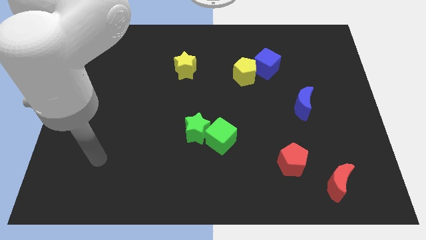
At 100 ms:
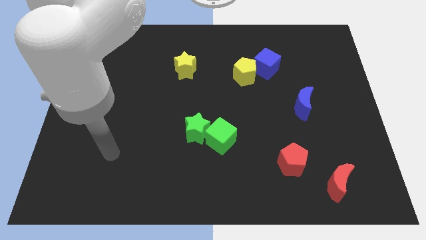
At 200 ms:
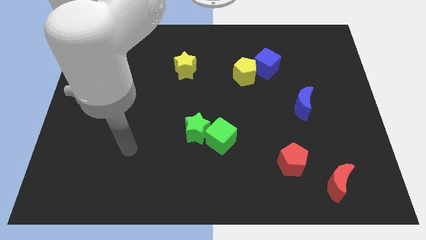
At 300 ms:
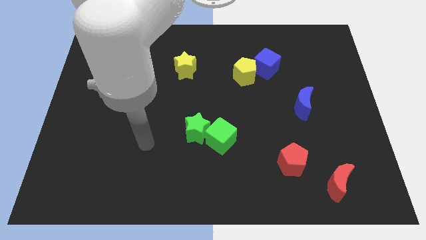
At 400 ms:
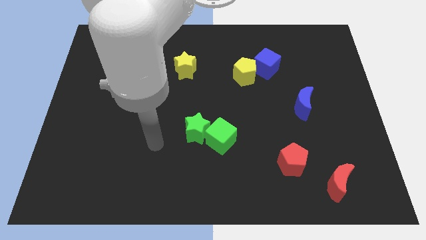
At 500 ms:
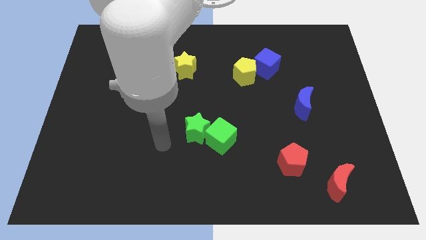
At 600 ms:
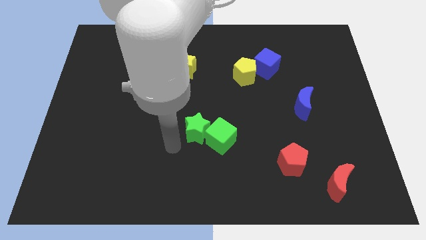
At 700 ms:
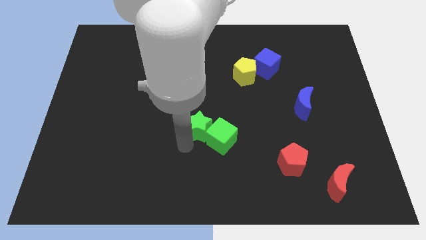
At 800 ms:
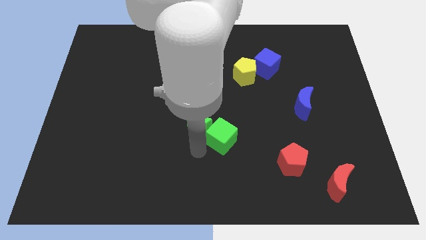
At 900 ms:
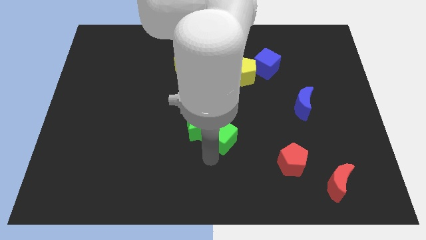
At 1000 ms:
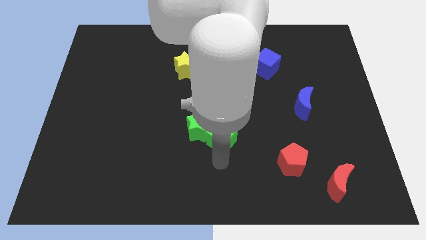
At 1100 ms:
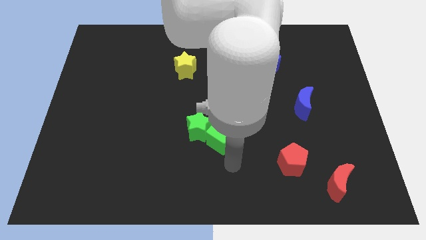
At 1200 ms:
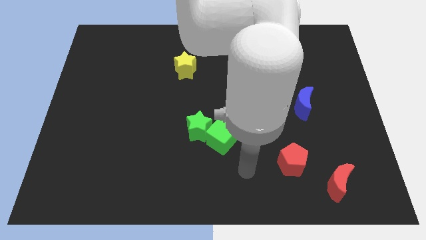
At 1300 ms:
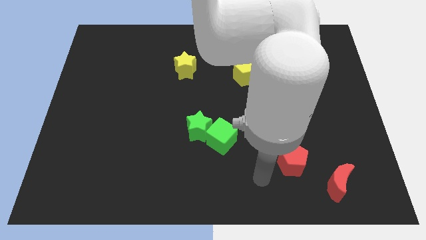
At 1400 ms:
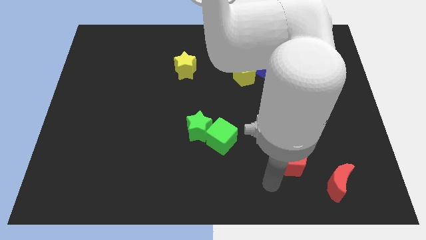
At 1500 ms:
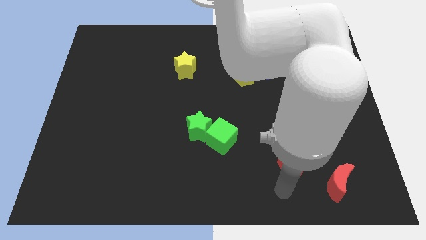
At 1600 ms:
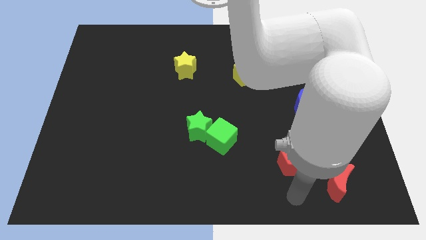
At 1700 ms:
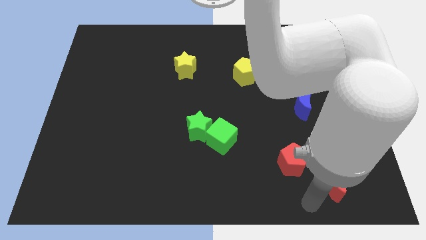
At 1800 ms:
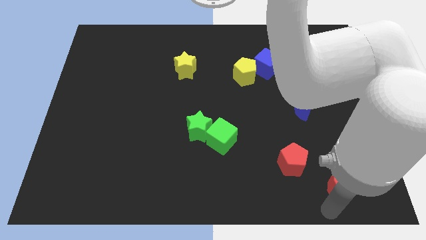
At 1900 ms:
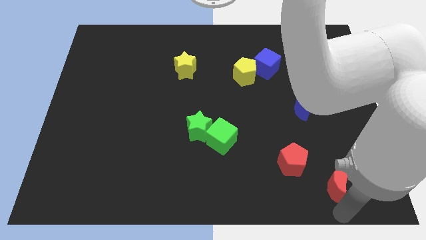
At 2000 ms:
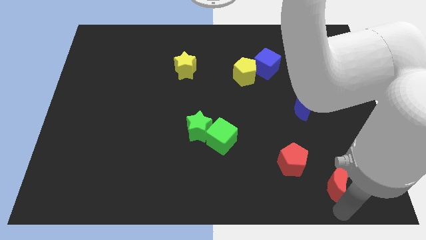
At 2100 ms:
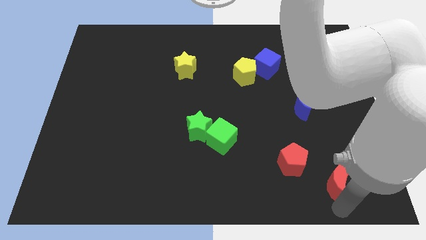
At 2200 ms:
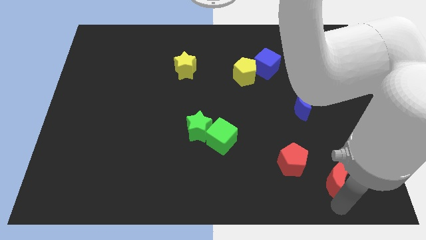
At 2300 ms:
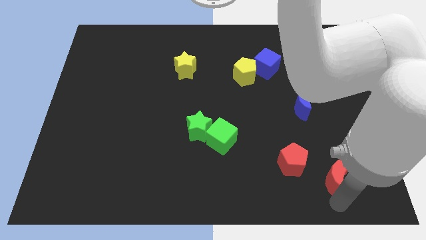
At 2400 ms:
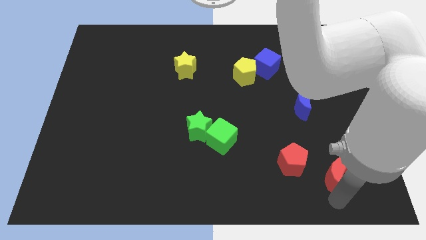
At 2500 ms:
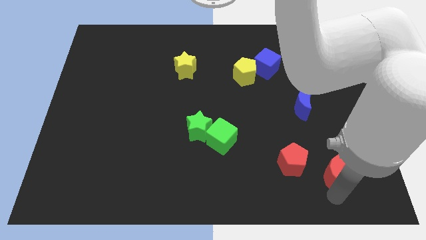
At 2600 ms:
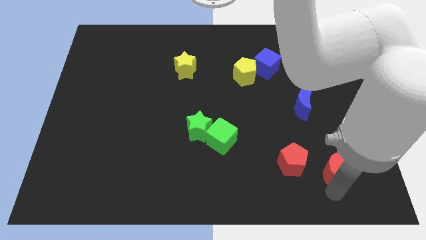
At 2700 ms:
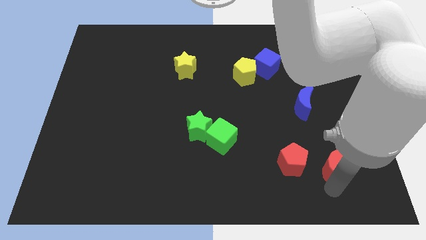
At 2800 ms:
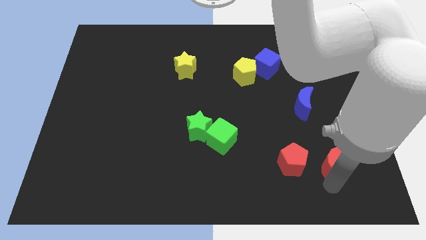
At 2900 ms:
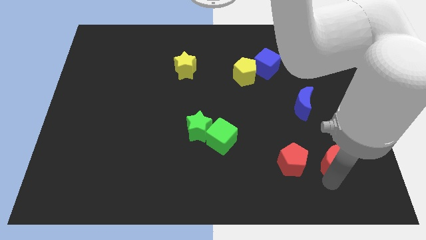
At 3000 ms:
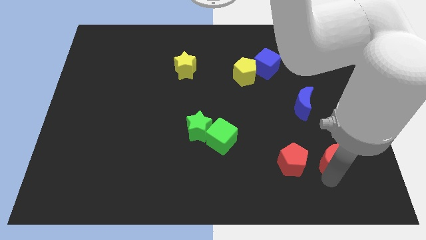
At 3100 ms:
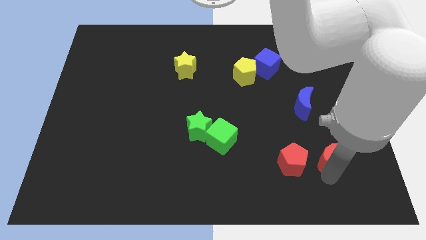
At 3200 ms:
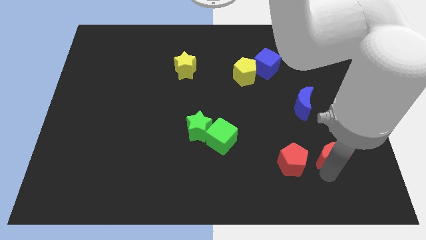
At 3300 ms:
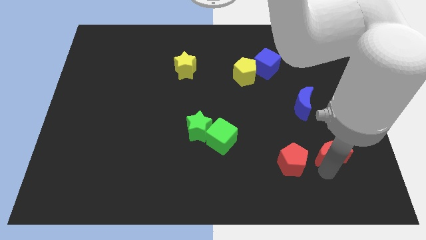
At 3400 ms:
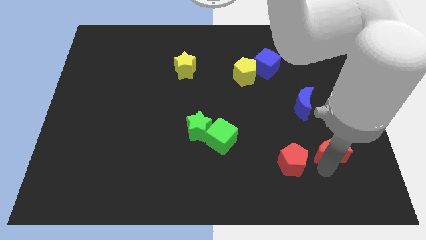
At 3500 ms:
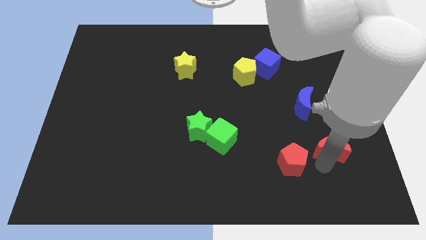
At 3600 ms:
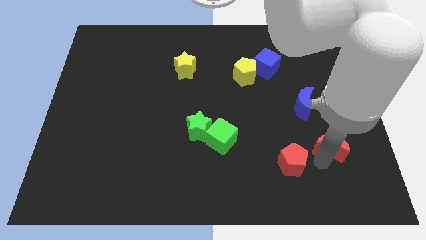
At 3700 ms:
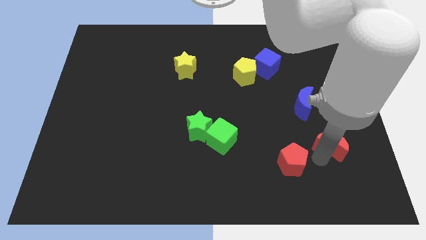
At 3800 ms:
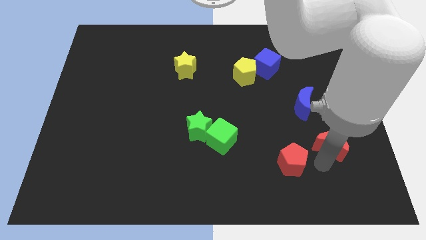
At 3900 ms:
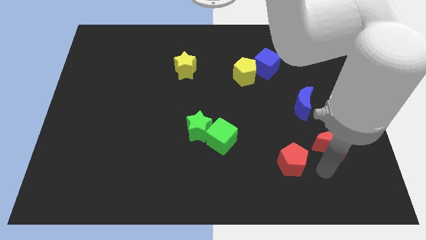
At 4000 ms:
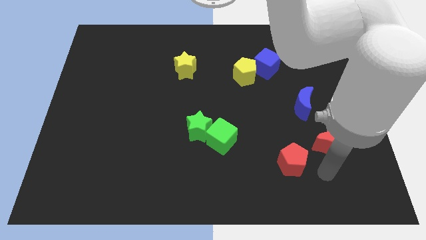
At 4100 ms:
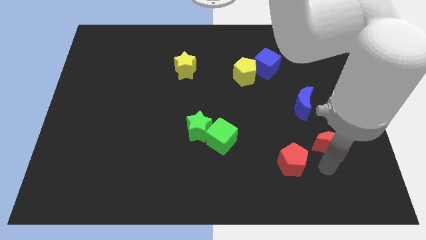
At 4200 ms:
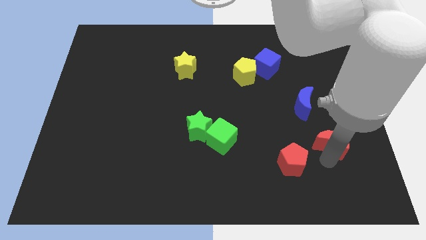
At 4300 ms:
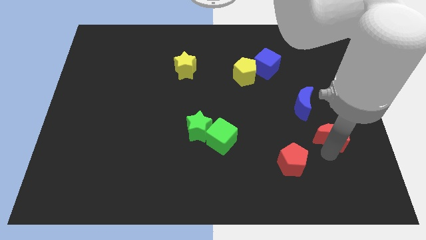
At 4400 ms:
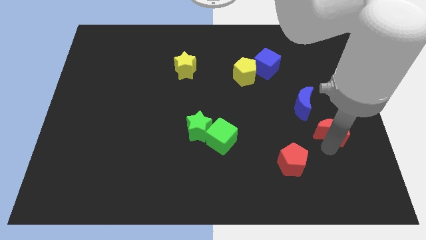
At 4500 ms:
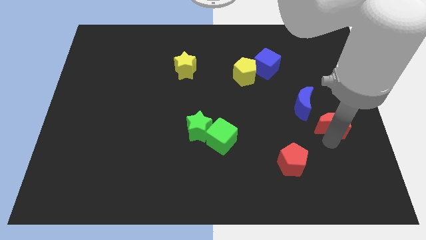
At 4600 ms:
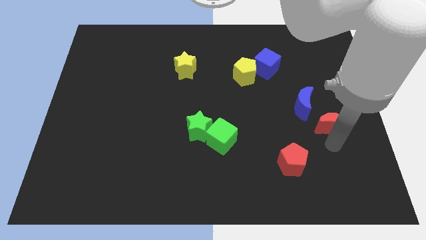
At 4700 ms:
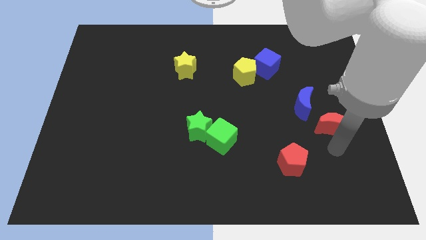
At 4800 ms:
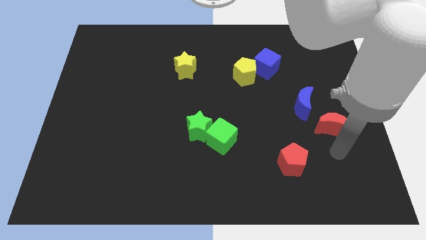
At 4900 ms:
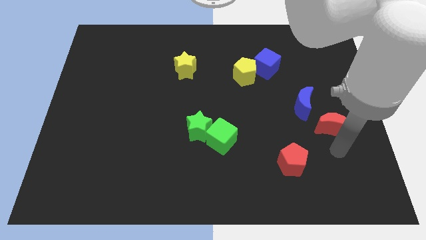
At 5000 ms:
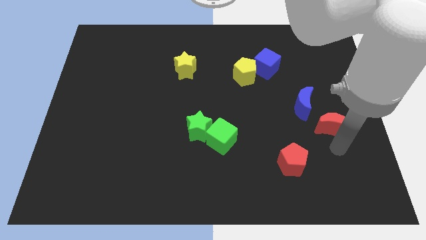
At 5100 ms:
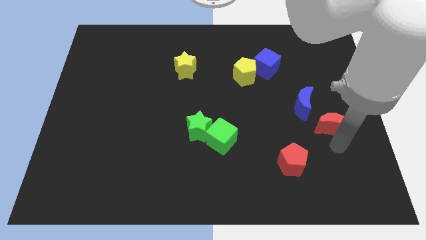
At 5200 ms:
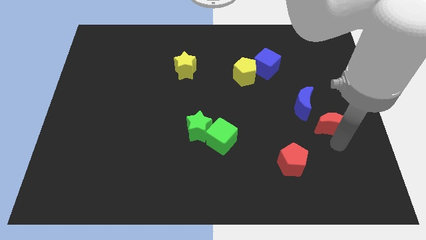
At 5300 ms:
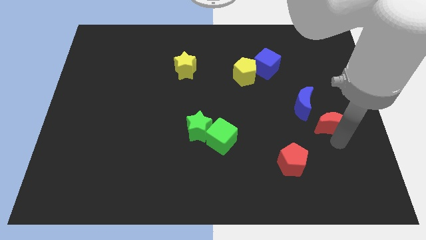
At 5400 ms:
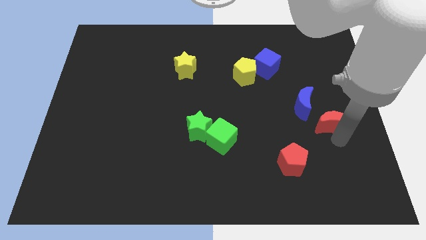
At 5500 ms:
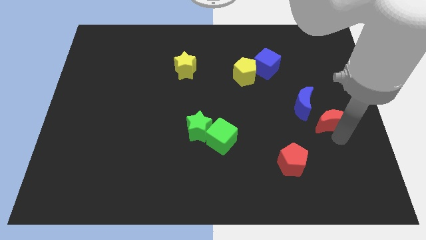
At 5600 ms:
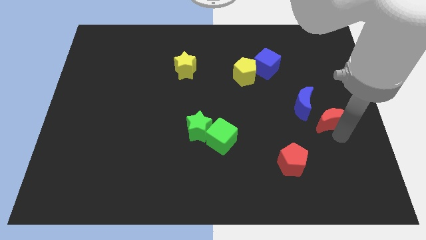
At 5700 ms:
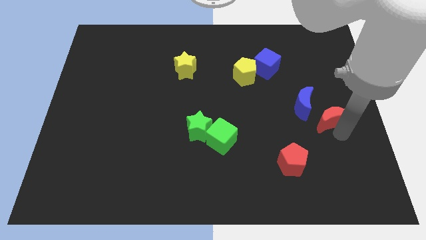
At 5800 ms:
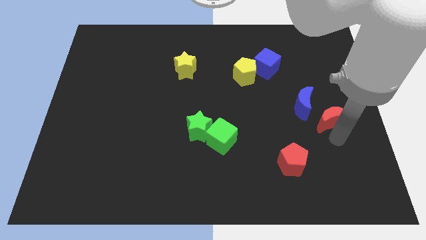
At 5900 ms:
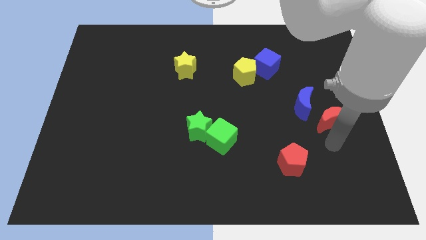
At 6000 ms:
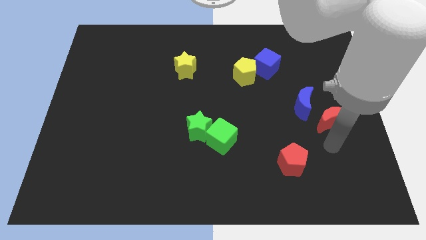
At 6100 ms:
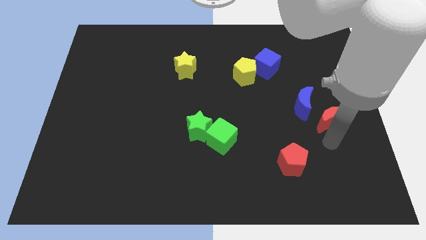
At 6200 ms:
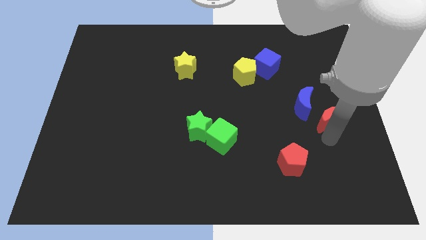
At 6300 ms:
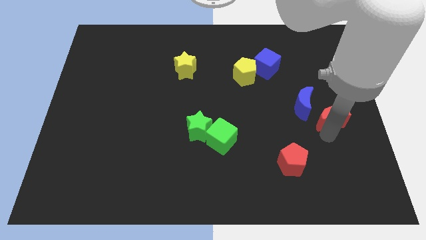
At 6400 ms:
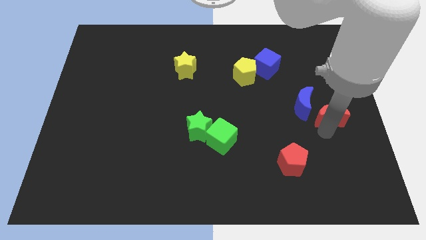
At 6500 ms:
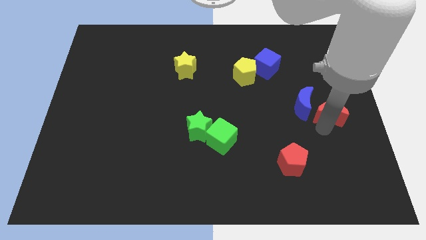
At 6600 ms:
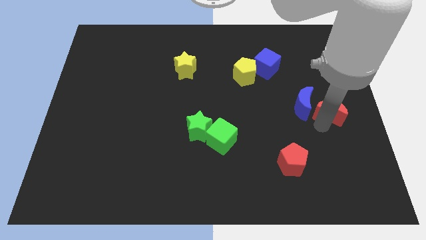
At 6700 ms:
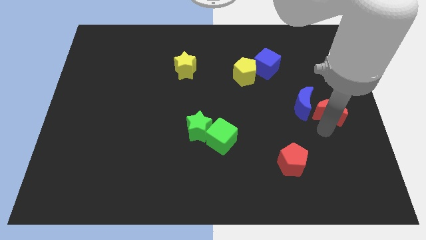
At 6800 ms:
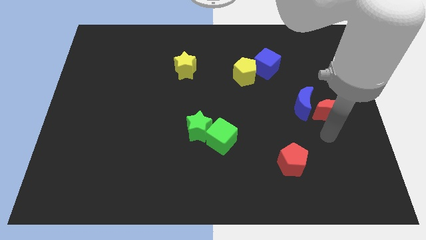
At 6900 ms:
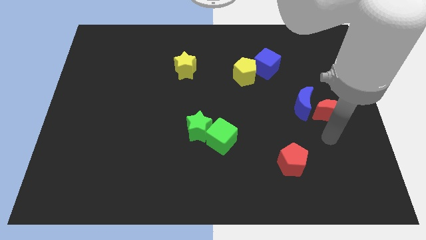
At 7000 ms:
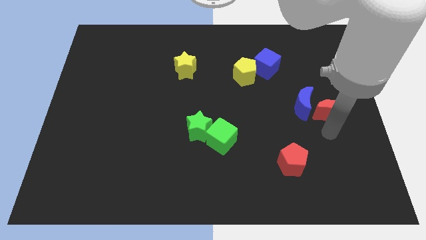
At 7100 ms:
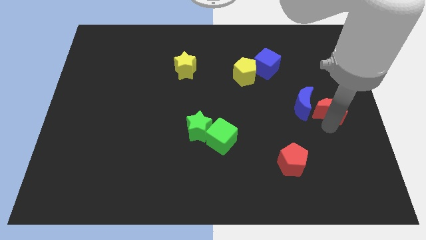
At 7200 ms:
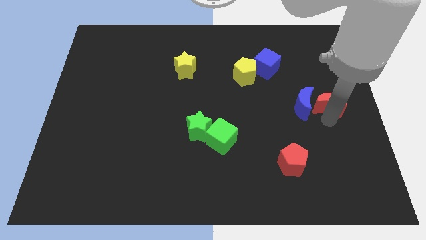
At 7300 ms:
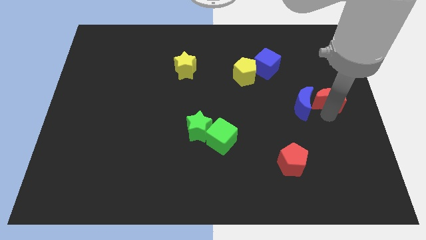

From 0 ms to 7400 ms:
push the red moon up

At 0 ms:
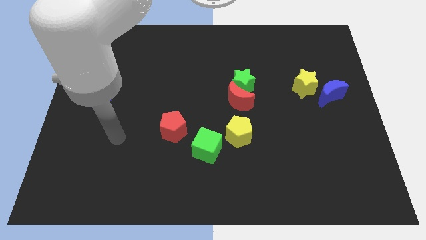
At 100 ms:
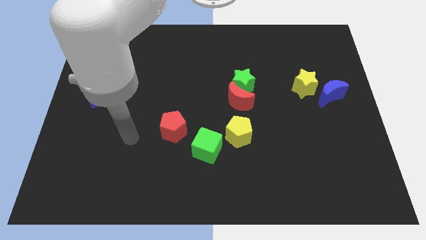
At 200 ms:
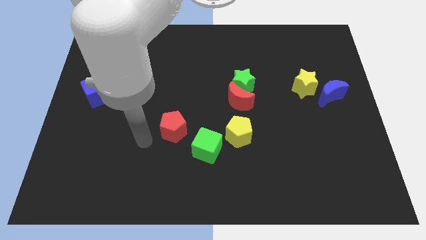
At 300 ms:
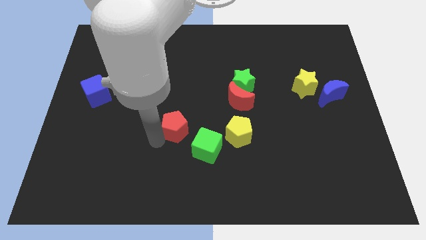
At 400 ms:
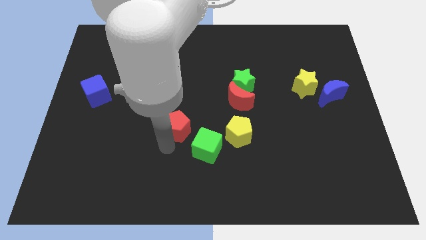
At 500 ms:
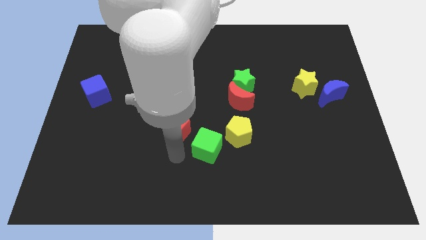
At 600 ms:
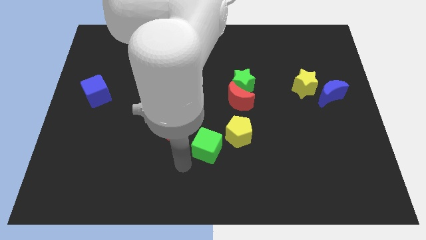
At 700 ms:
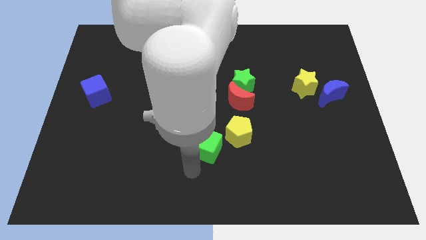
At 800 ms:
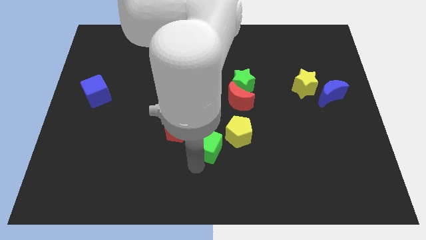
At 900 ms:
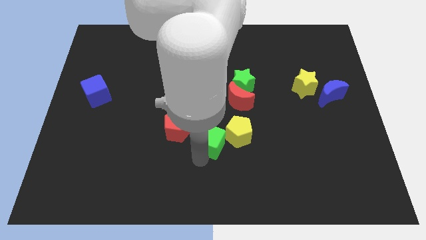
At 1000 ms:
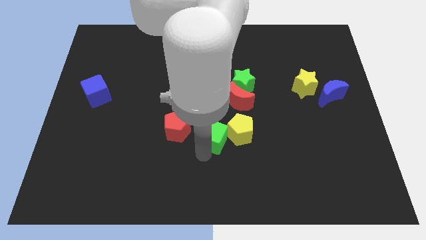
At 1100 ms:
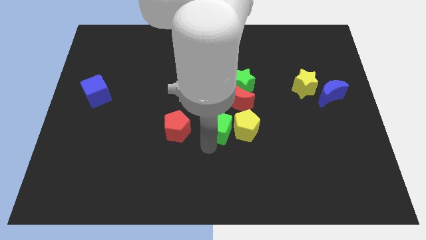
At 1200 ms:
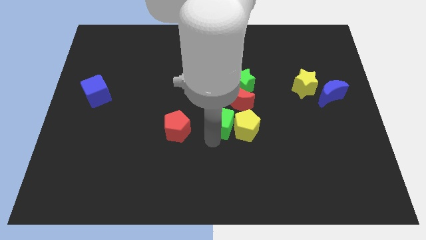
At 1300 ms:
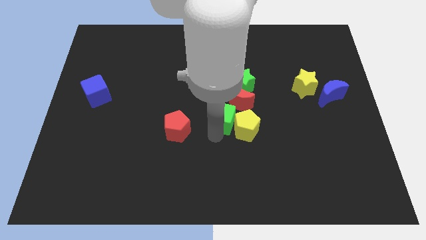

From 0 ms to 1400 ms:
move the green cube a little upwards and to the right
